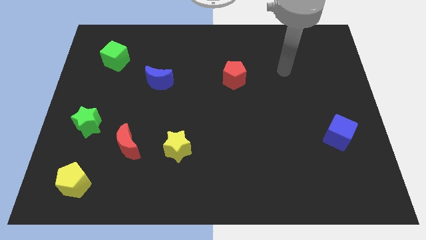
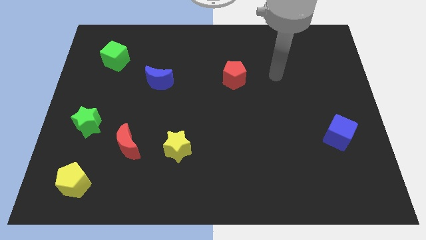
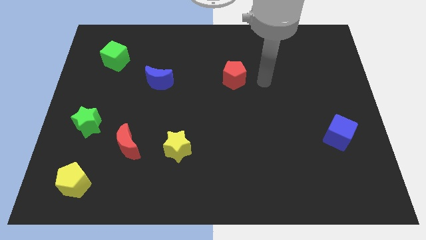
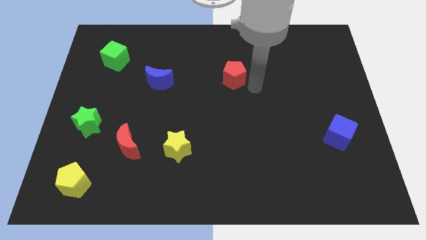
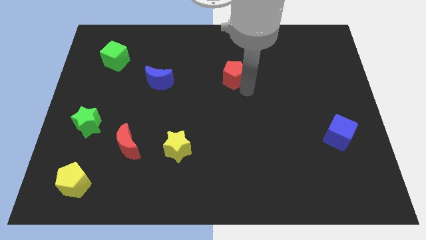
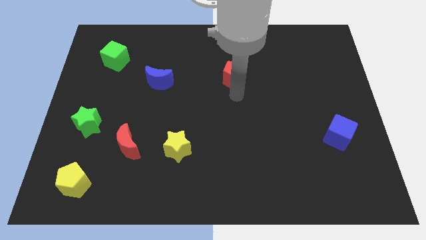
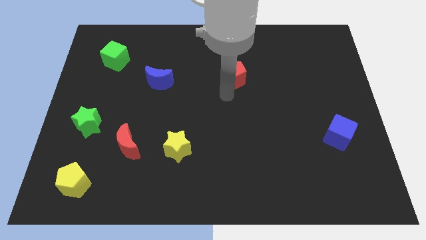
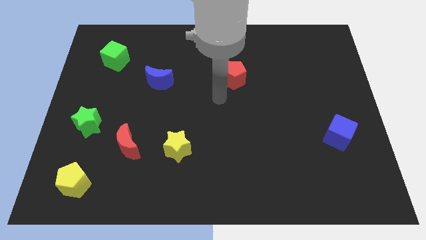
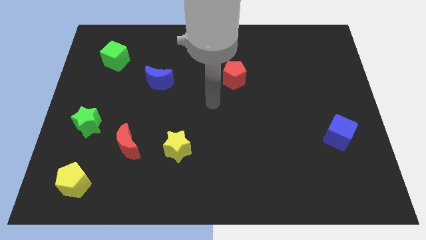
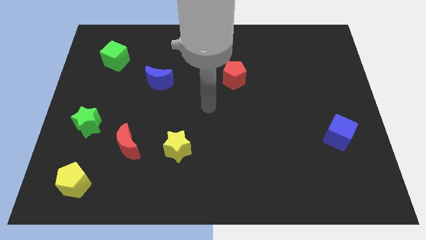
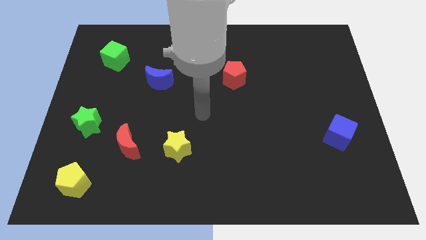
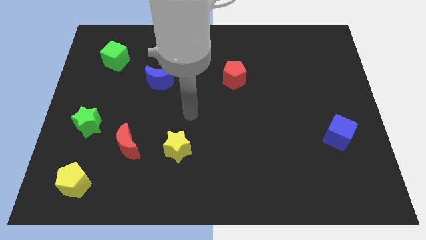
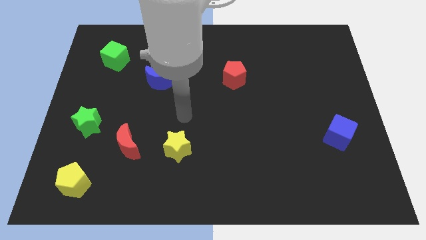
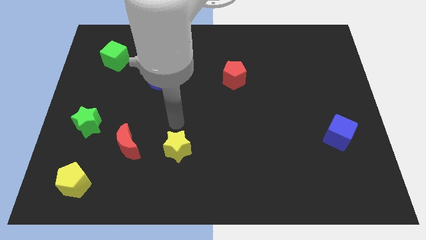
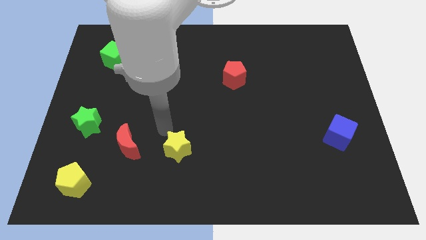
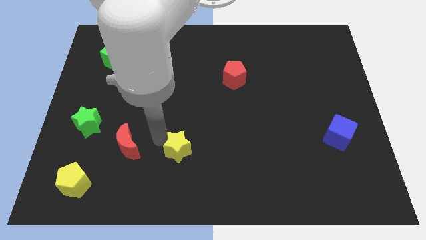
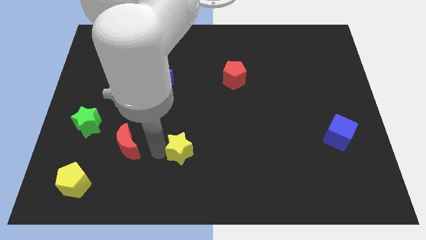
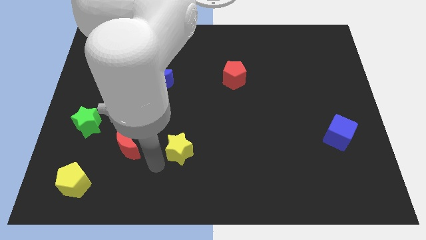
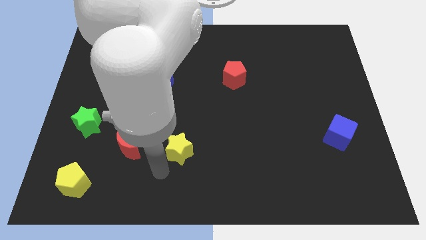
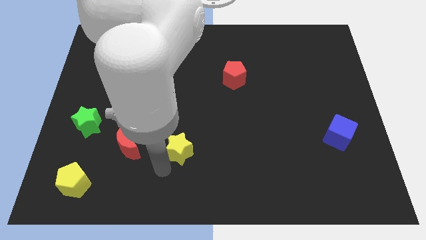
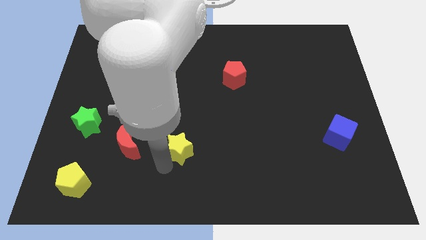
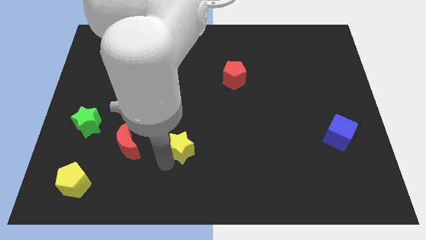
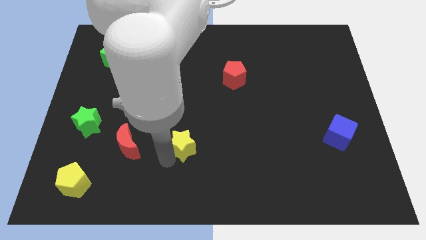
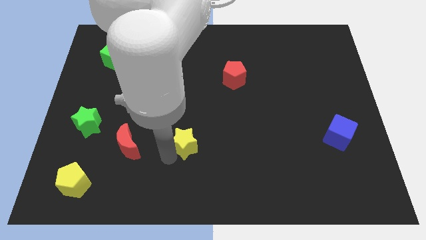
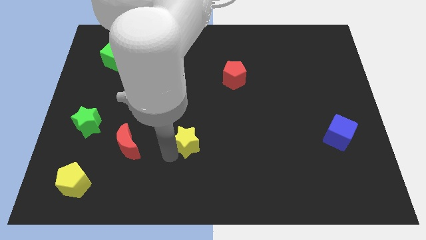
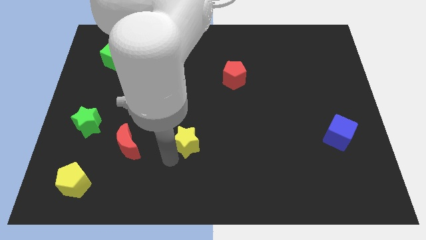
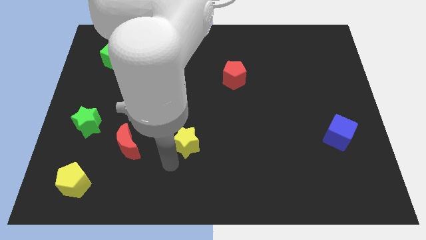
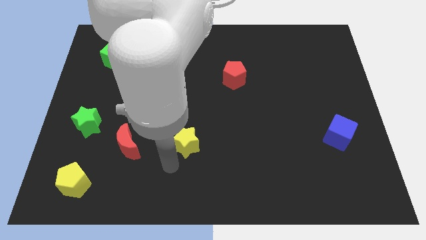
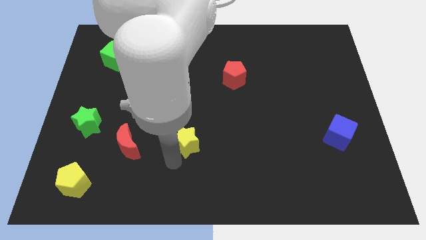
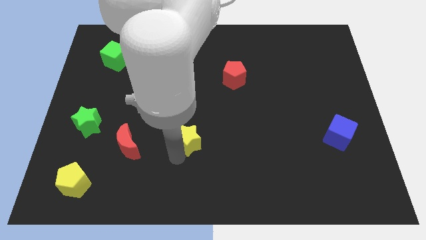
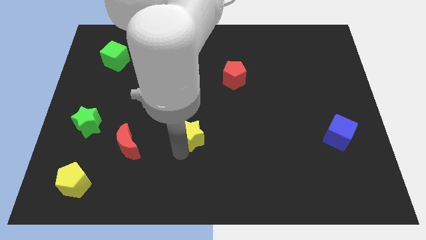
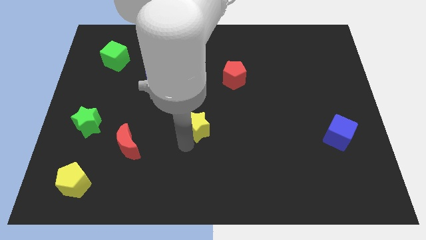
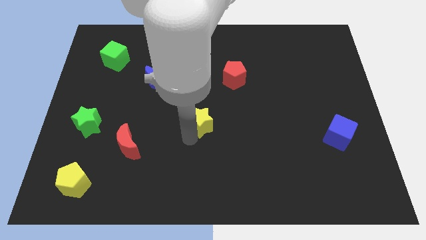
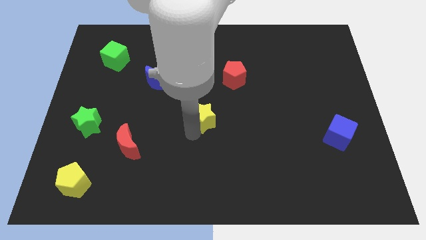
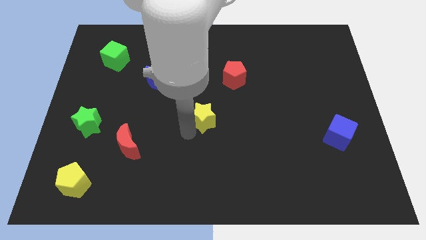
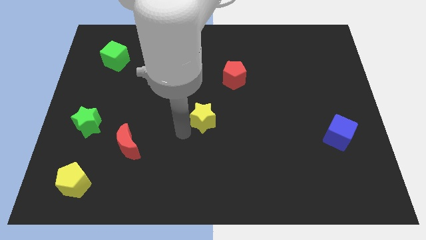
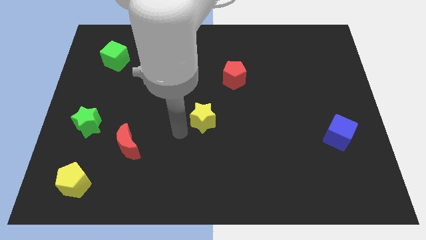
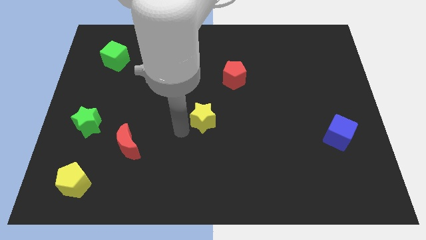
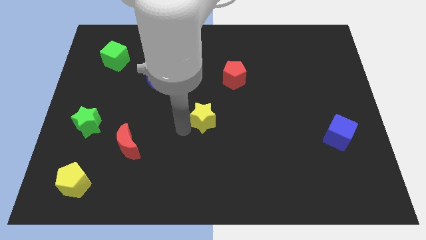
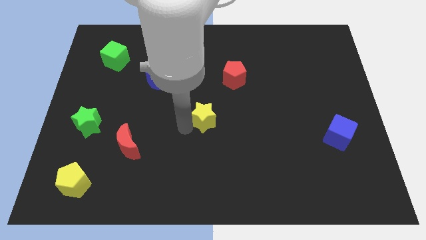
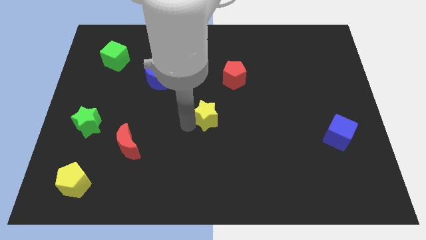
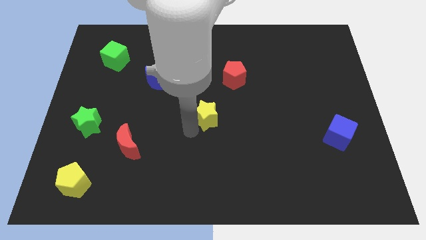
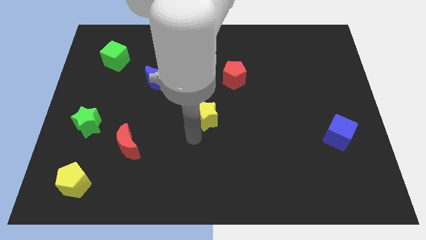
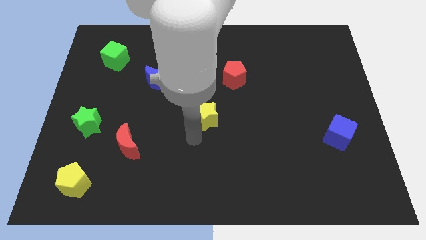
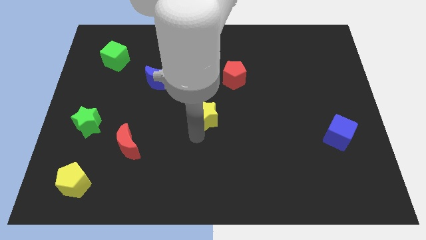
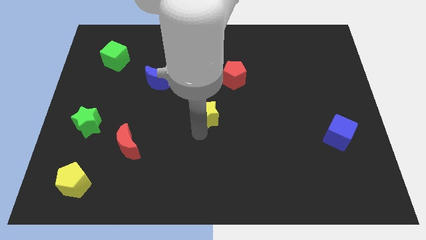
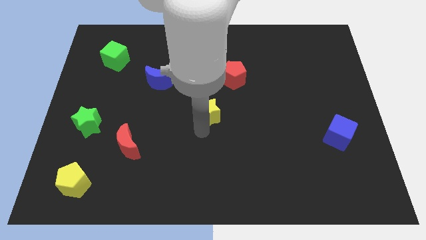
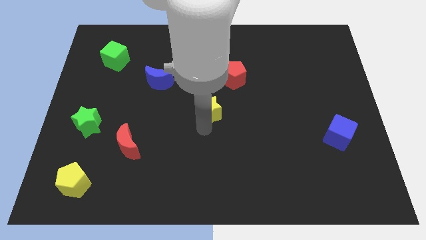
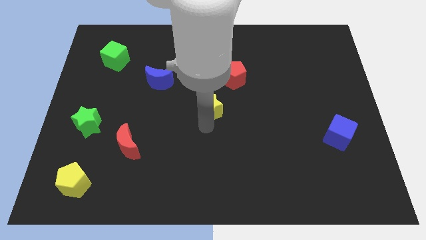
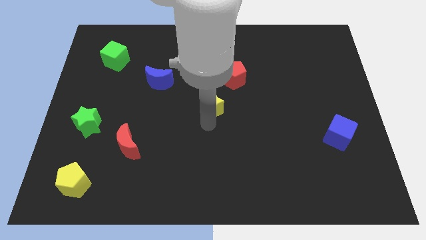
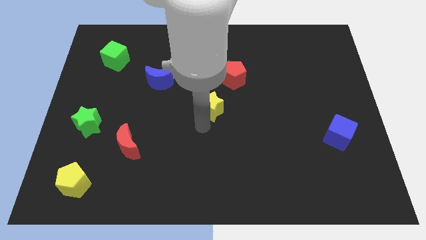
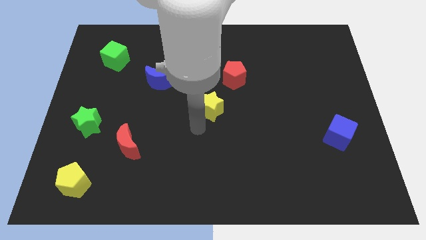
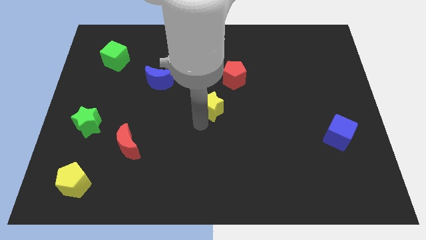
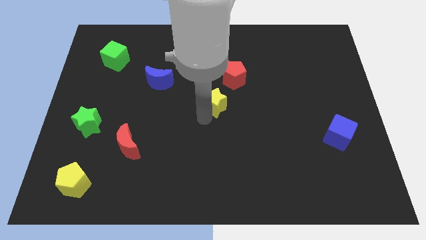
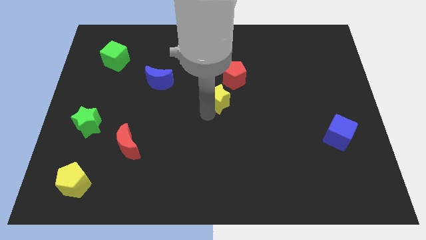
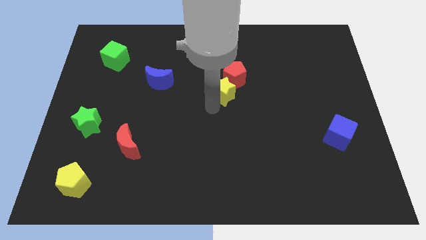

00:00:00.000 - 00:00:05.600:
put the yellow star close to the red pentagon

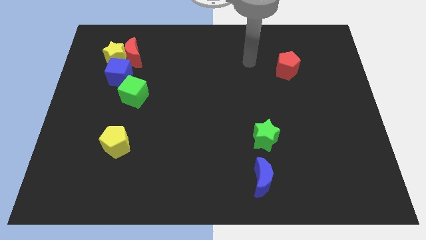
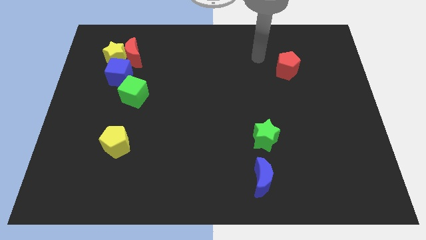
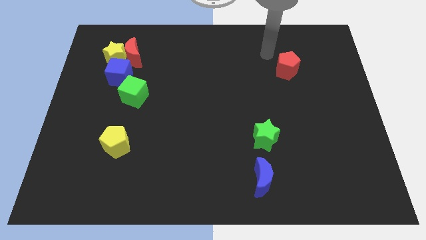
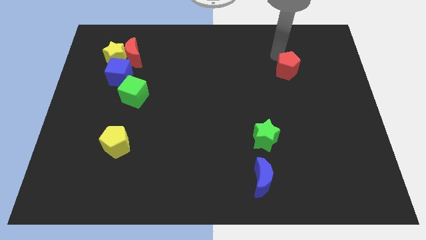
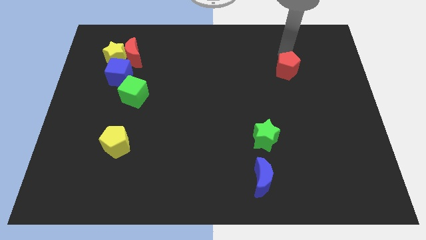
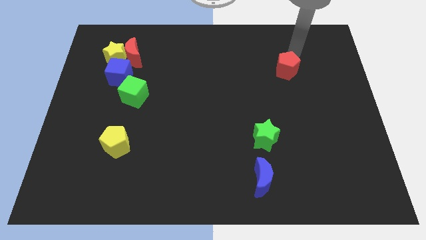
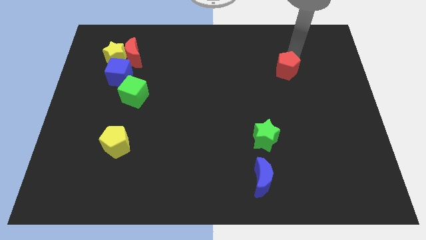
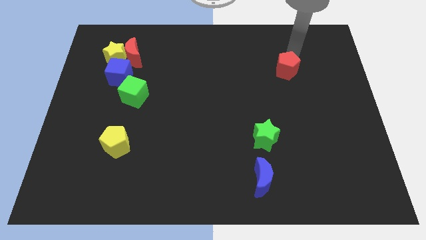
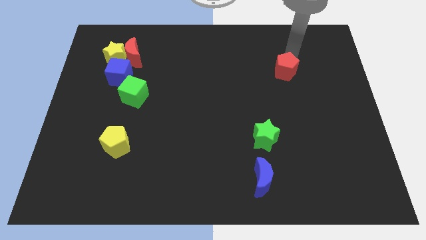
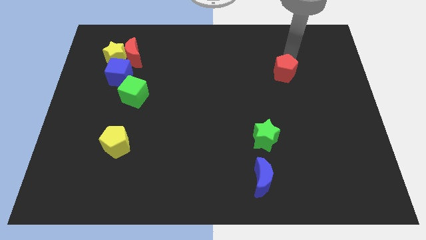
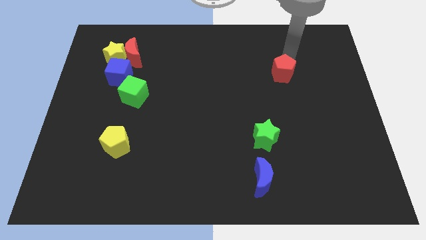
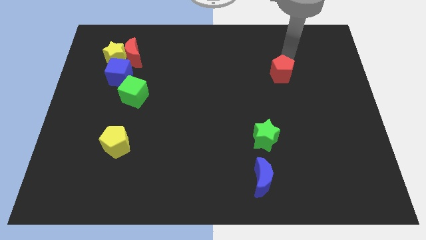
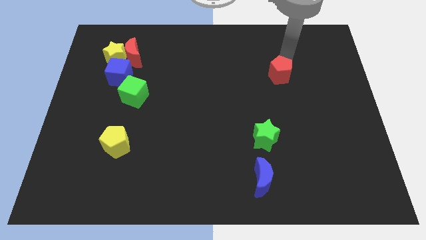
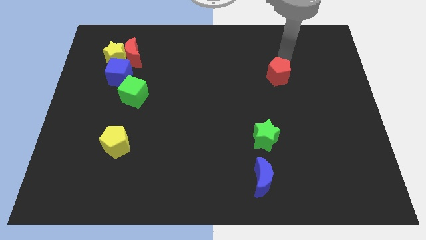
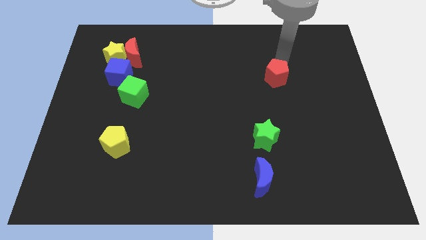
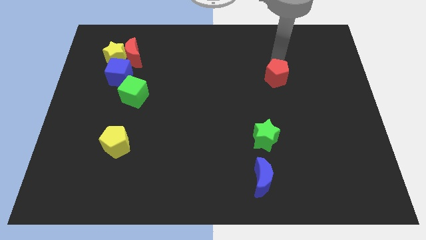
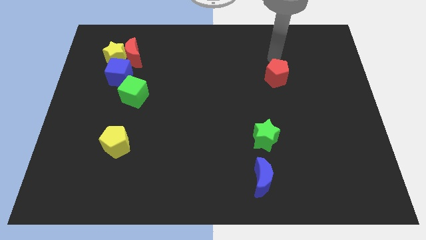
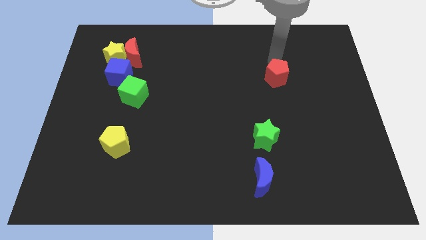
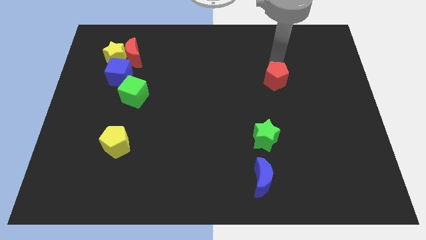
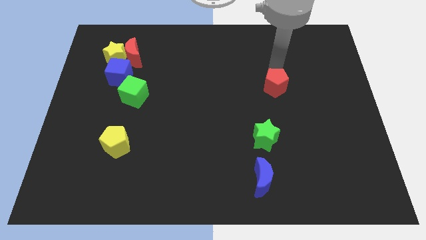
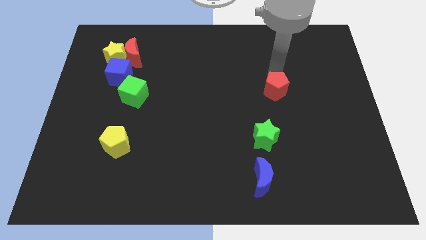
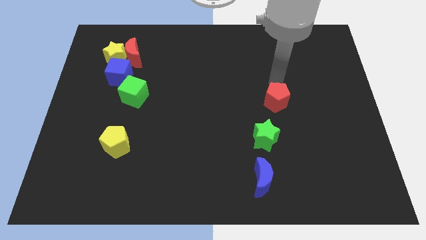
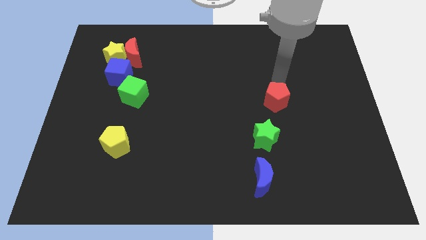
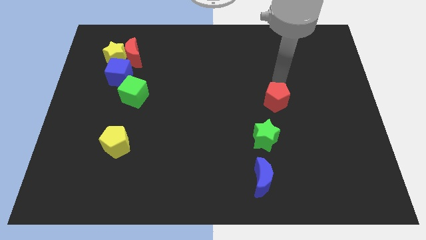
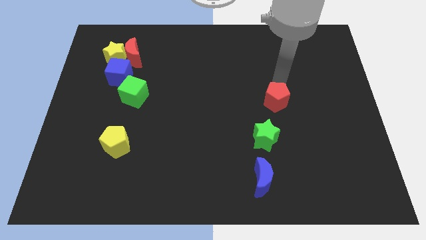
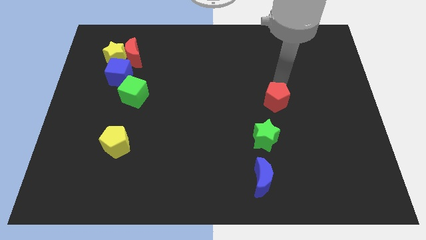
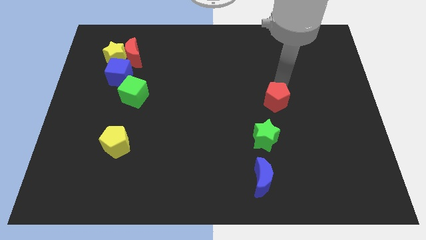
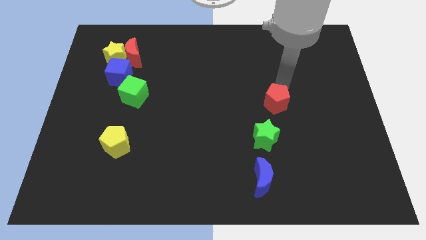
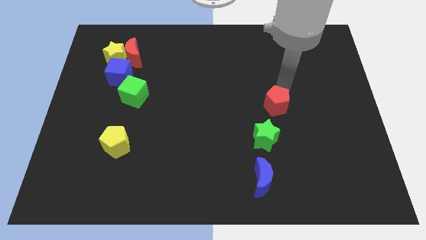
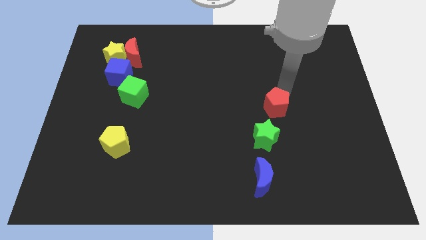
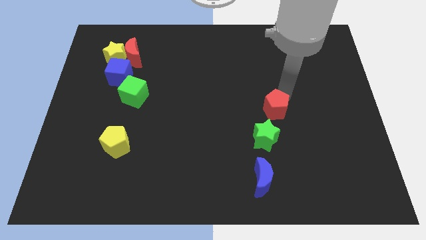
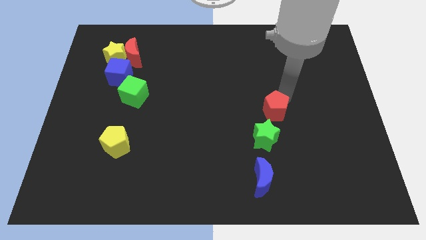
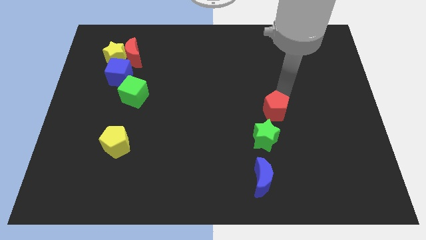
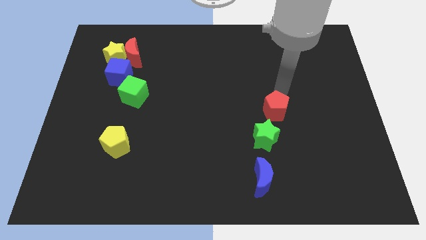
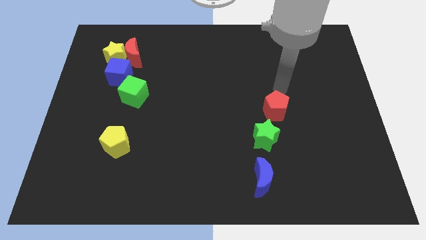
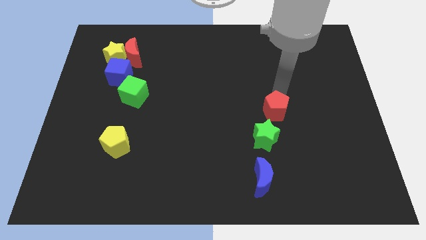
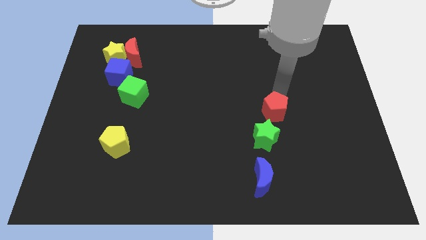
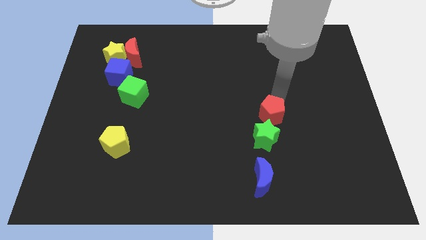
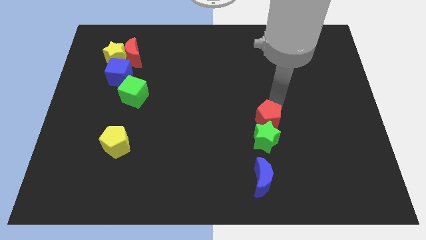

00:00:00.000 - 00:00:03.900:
put the red pentagon to the green star
